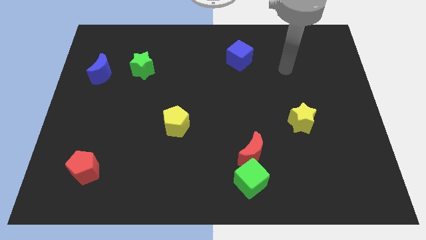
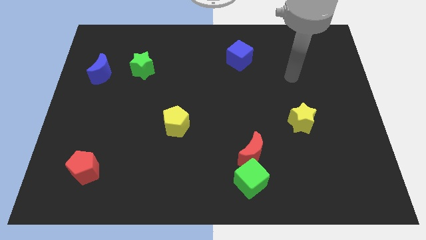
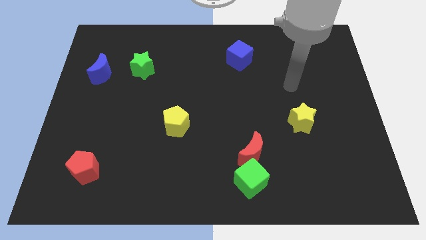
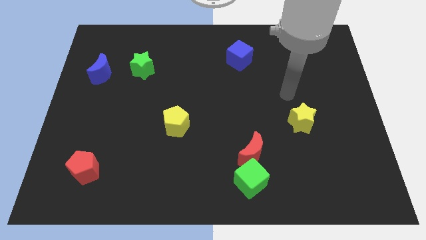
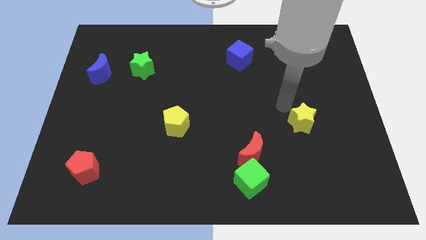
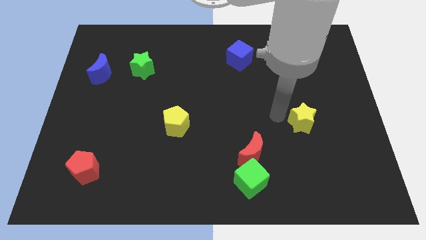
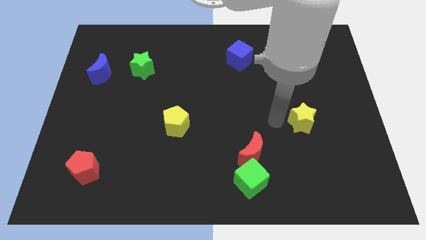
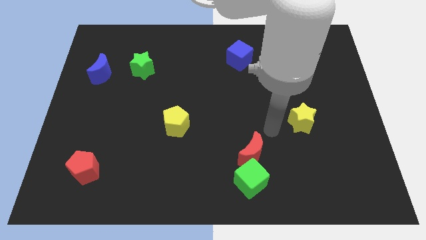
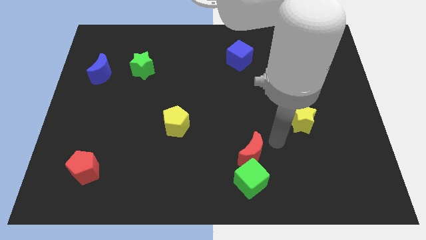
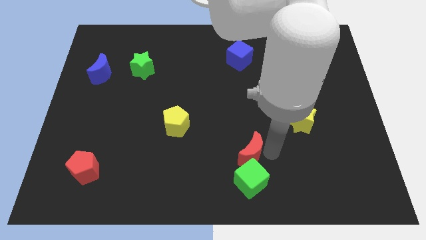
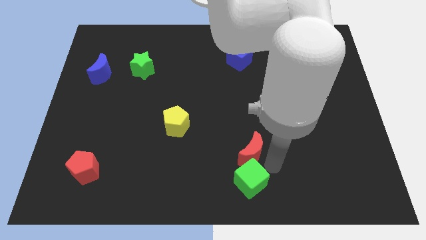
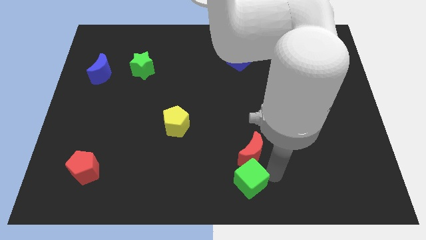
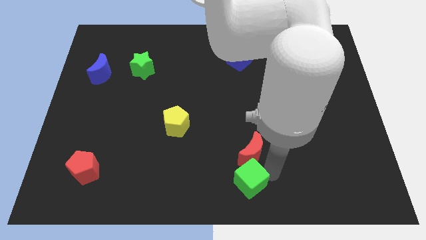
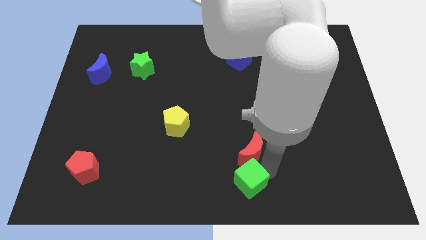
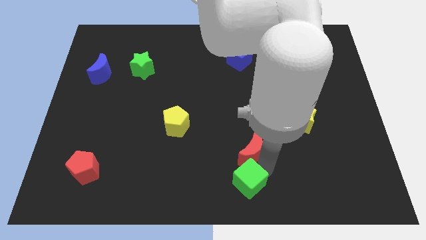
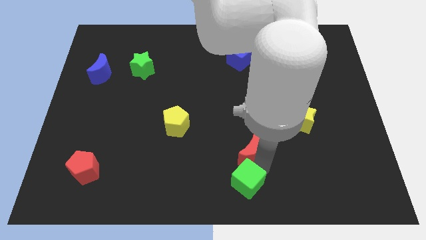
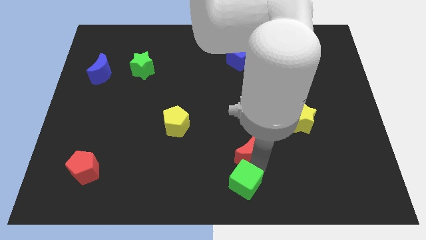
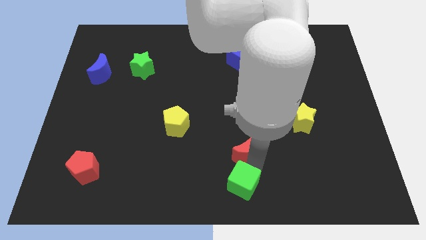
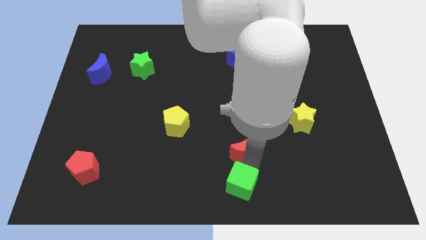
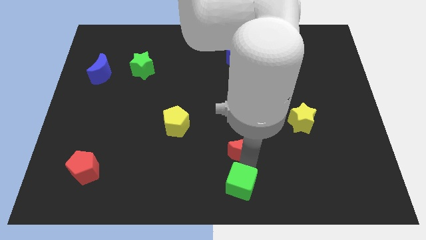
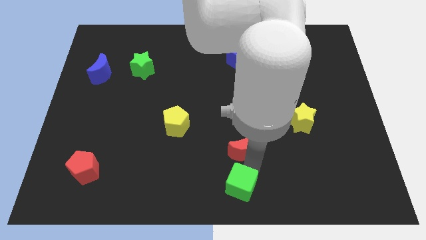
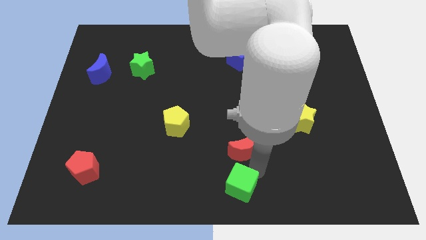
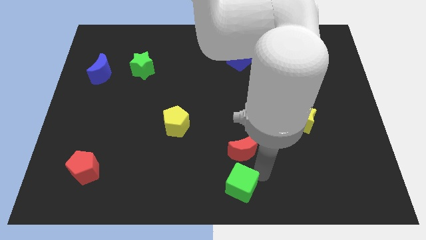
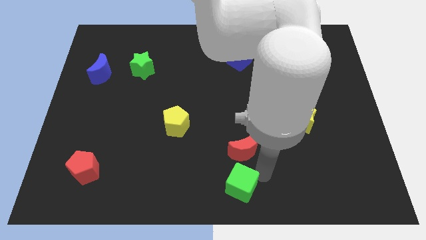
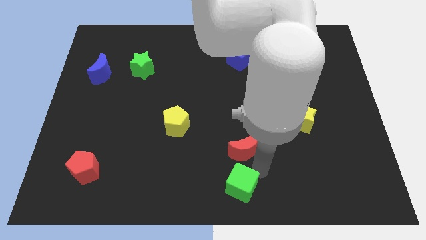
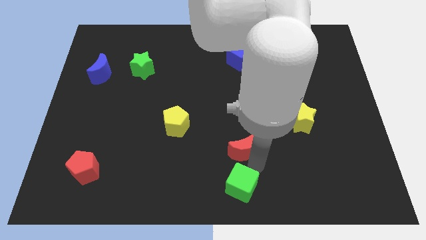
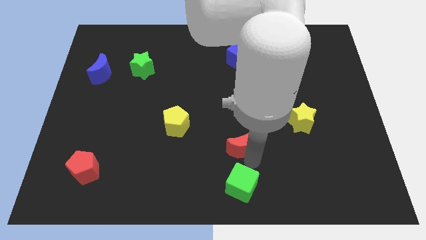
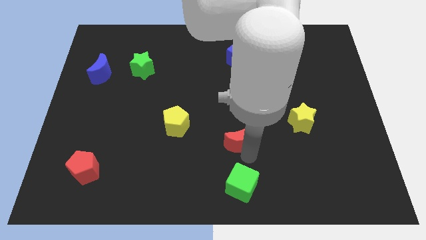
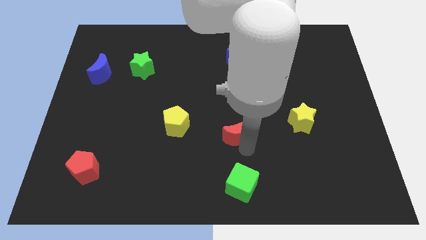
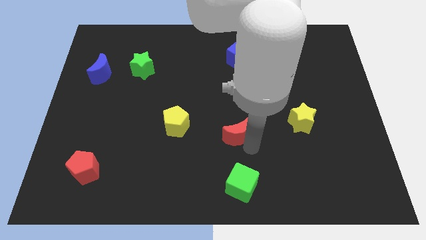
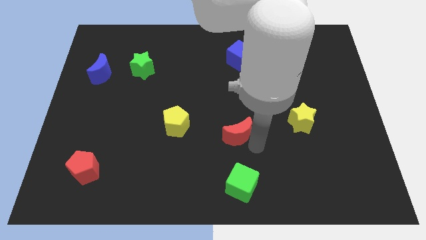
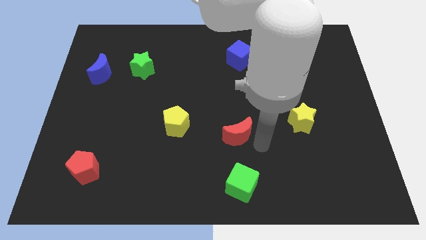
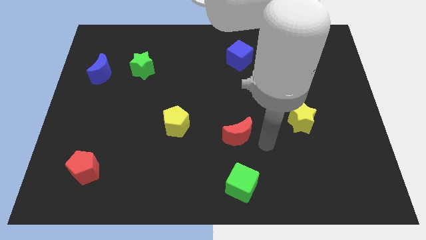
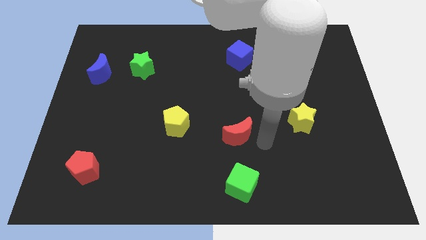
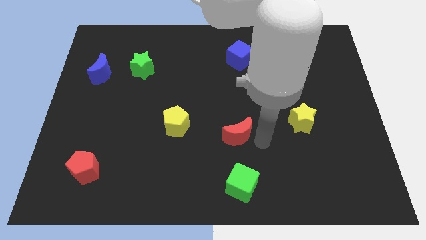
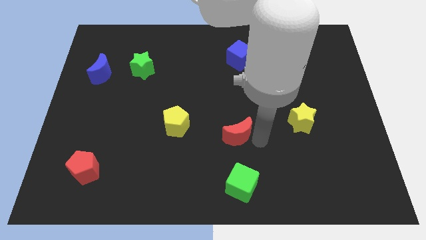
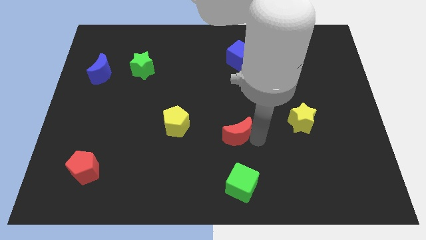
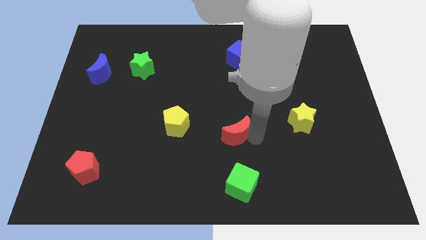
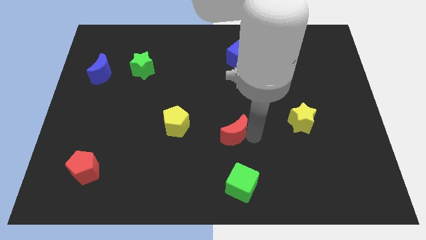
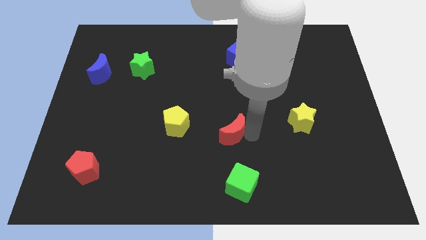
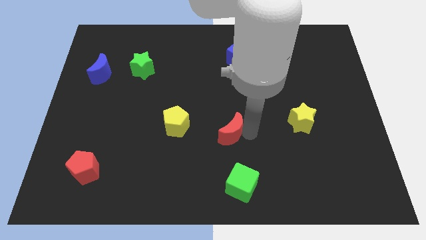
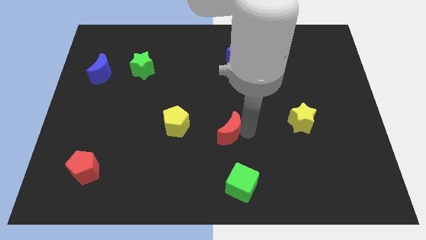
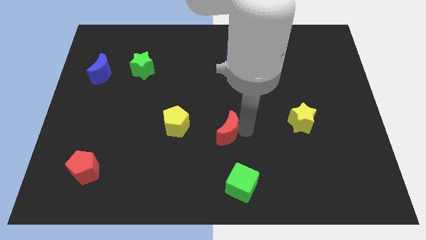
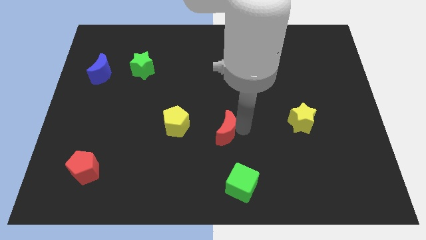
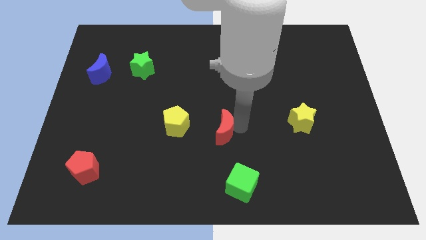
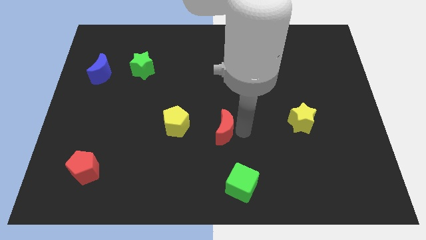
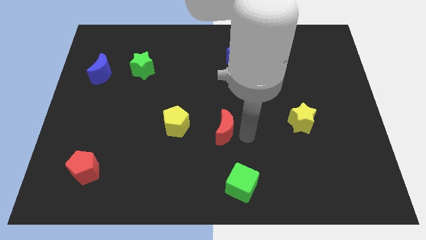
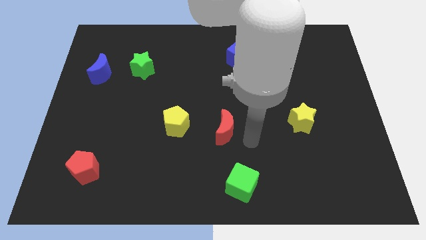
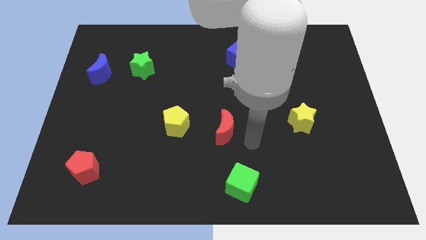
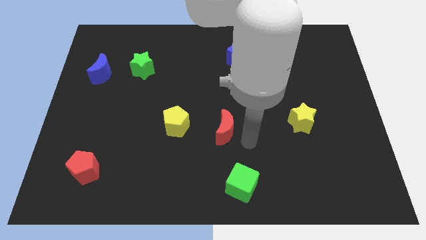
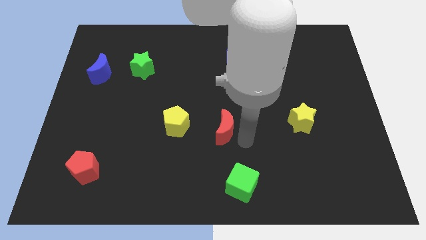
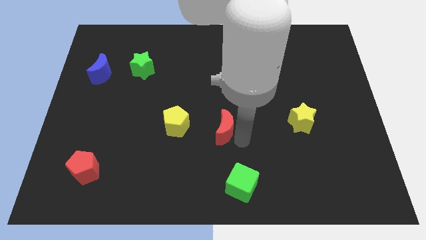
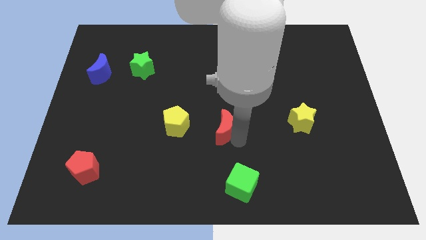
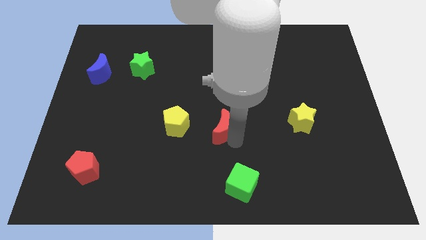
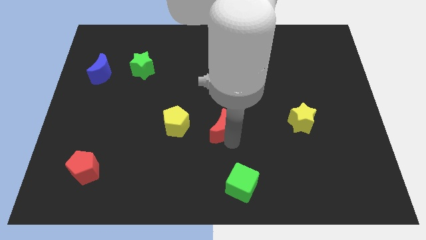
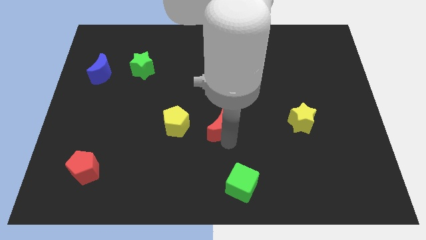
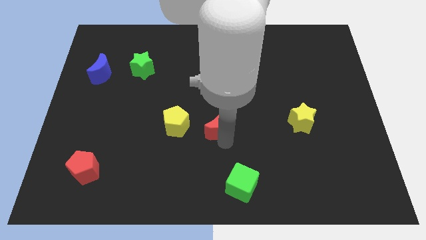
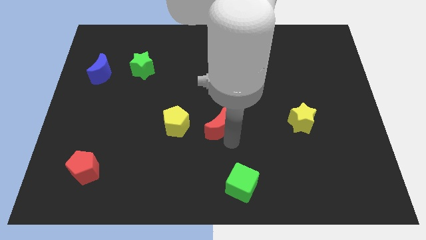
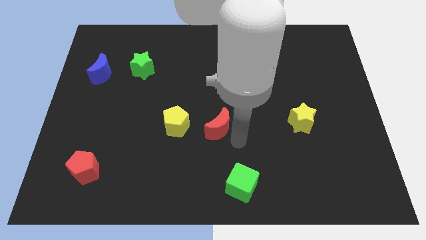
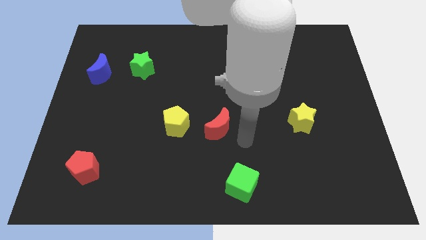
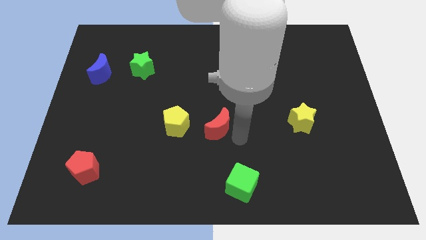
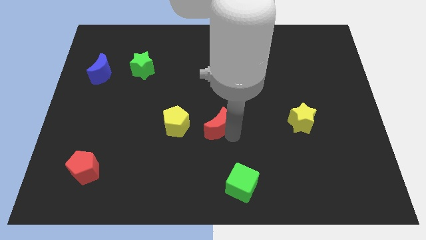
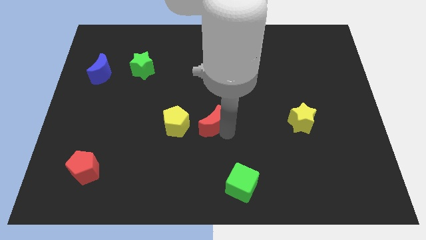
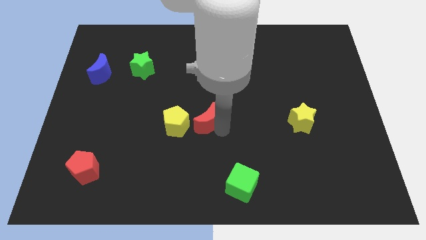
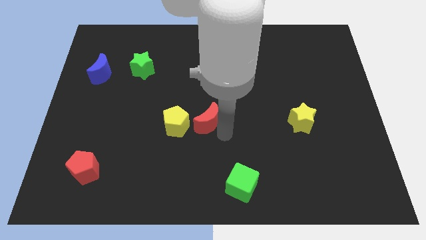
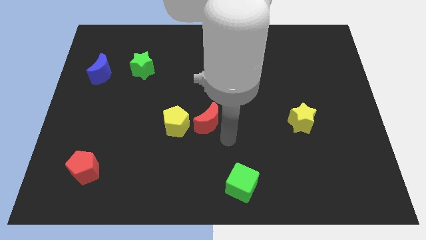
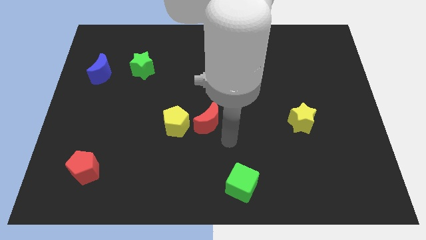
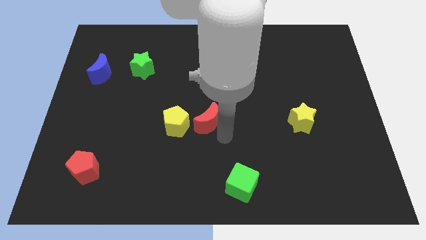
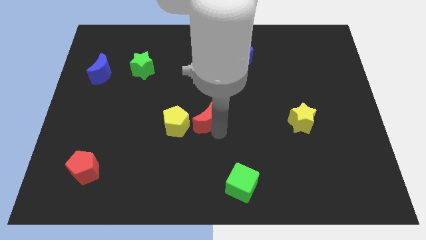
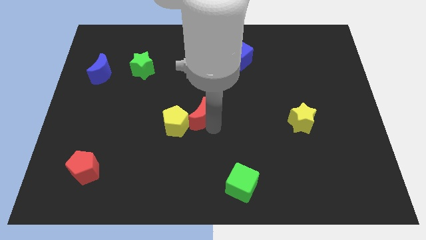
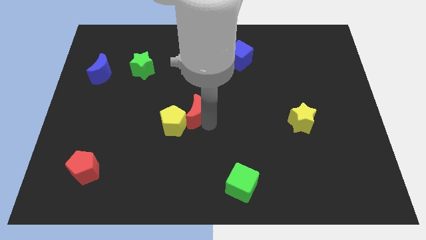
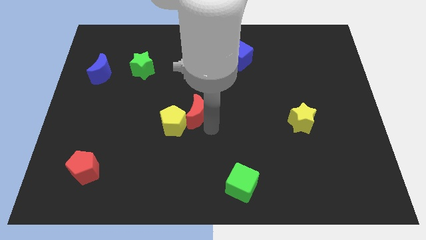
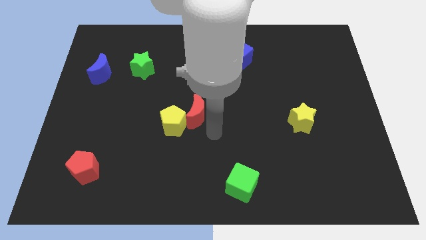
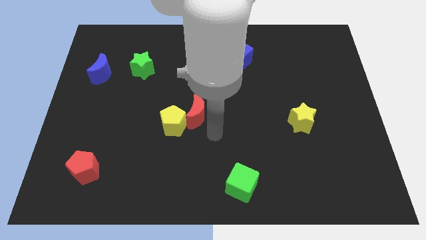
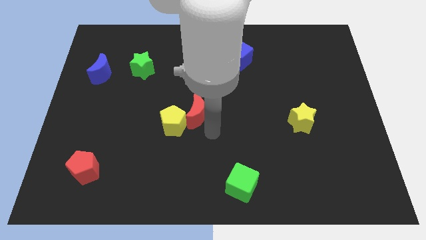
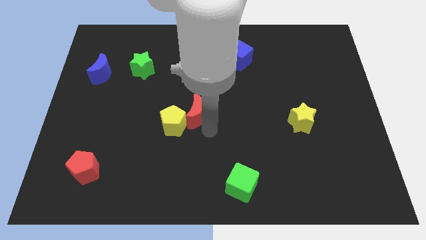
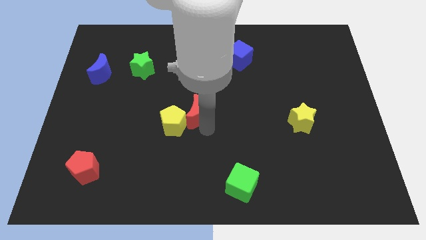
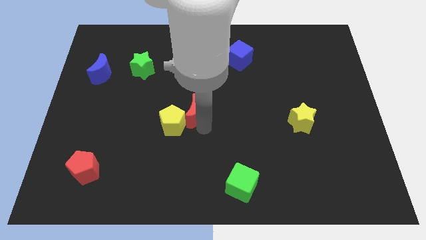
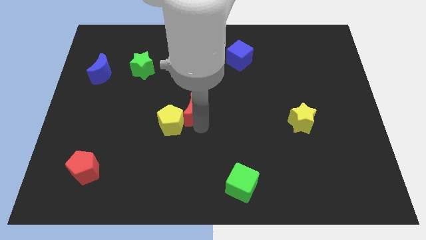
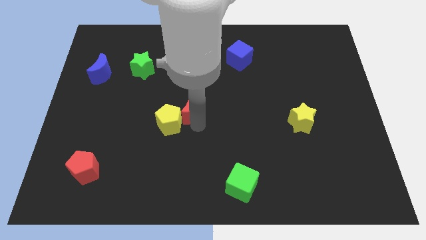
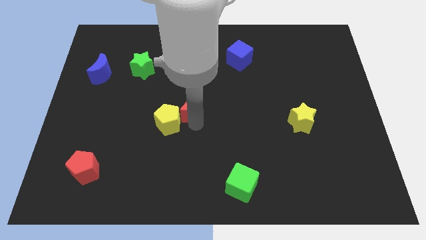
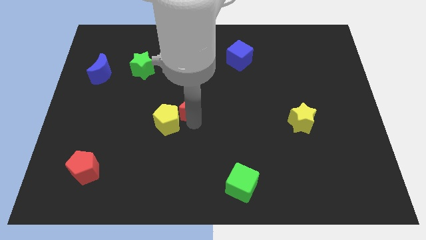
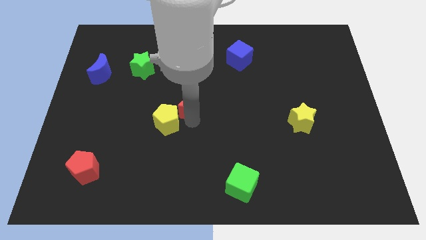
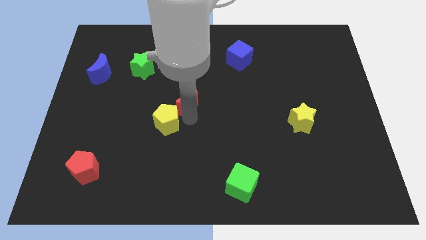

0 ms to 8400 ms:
move the red moon up and left
